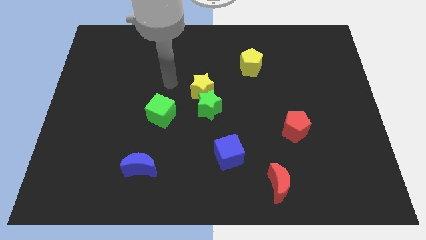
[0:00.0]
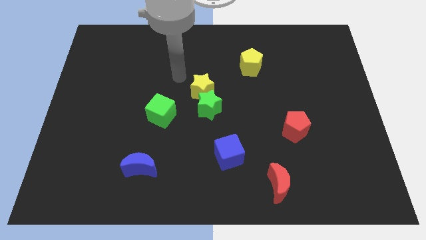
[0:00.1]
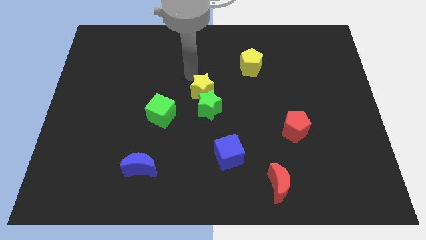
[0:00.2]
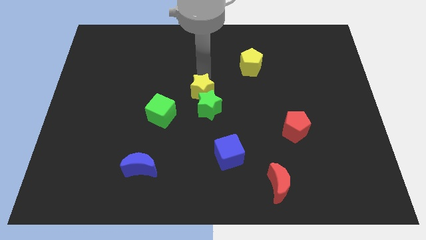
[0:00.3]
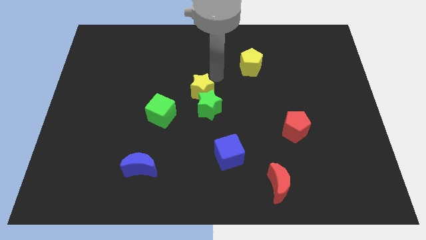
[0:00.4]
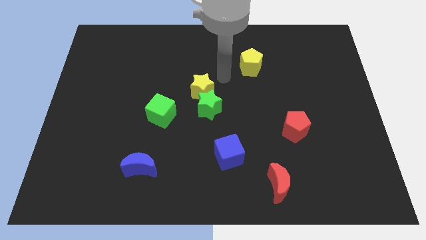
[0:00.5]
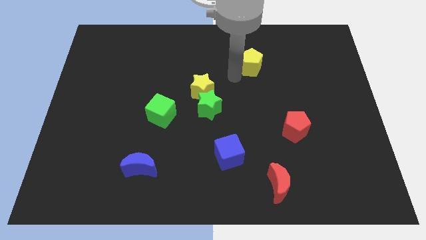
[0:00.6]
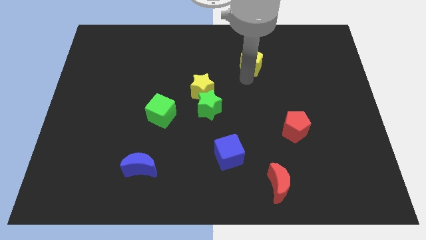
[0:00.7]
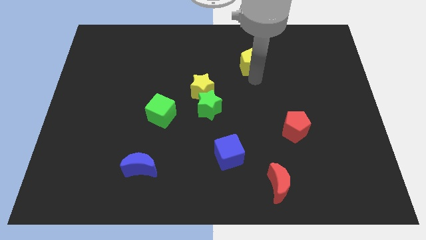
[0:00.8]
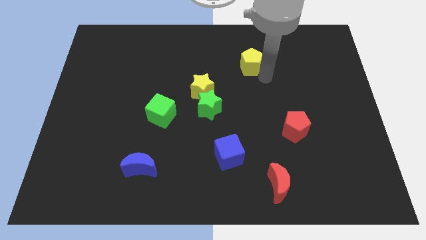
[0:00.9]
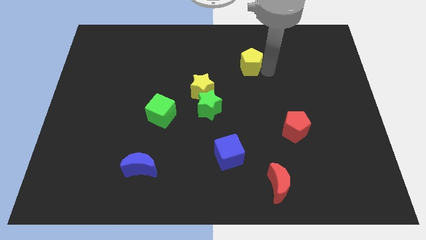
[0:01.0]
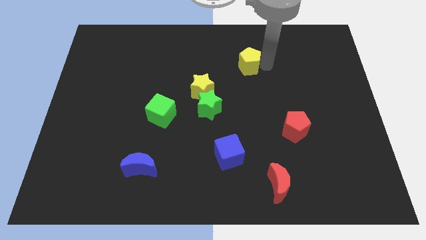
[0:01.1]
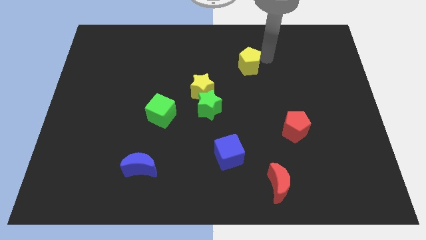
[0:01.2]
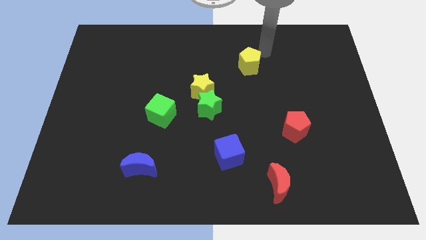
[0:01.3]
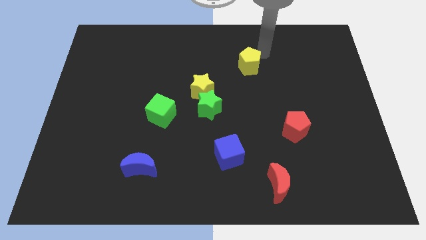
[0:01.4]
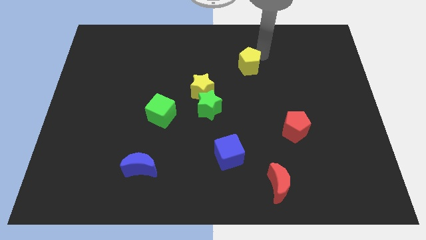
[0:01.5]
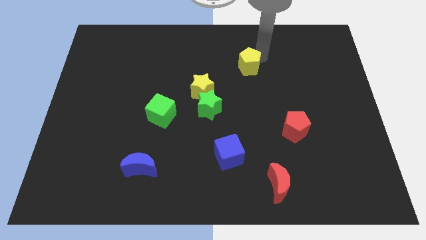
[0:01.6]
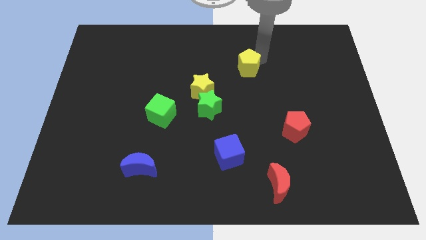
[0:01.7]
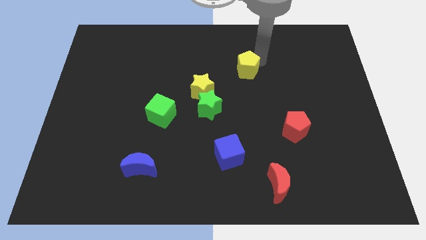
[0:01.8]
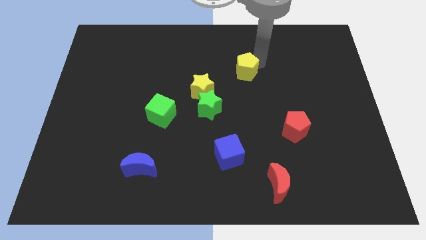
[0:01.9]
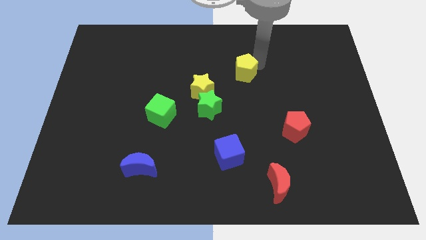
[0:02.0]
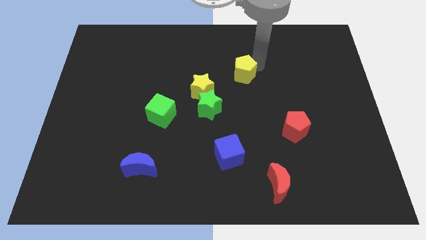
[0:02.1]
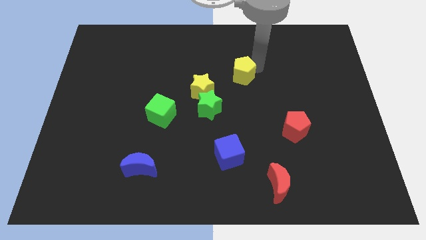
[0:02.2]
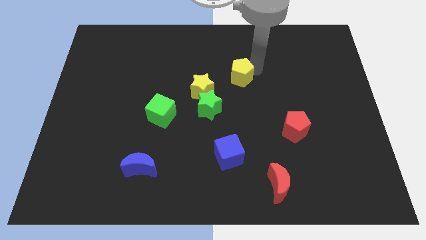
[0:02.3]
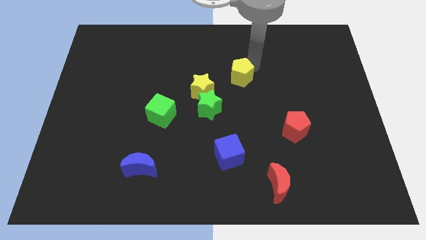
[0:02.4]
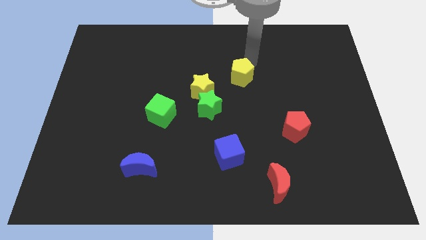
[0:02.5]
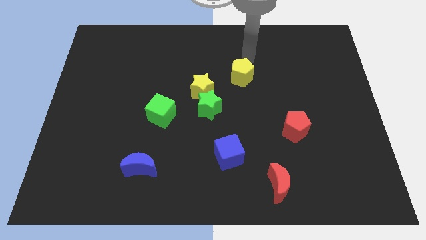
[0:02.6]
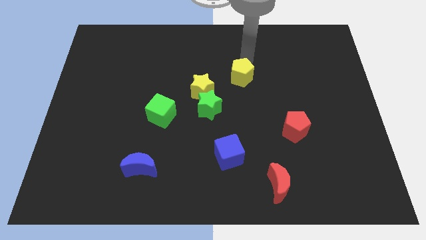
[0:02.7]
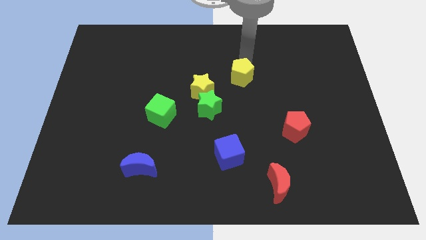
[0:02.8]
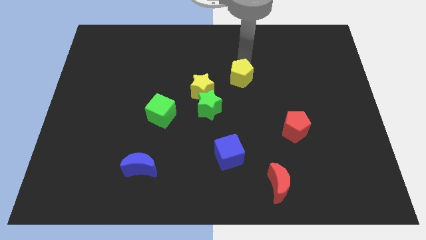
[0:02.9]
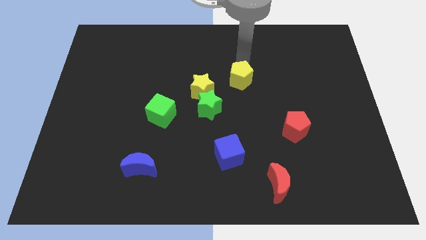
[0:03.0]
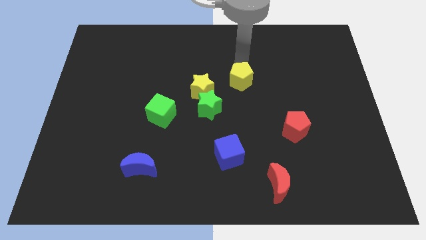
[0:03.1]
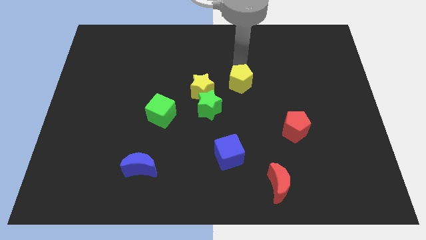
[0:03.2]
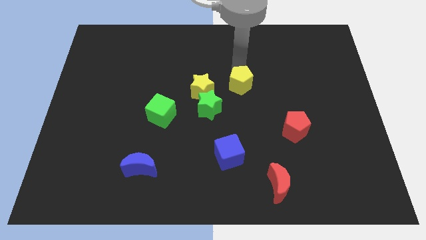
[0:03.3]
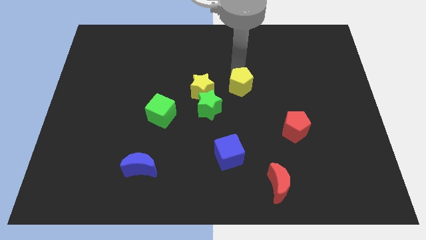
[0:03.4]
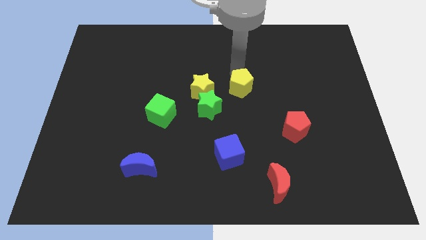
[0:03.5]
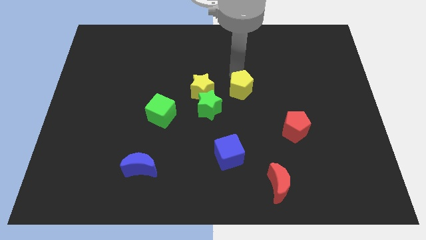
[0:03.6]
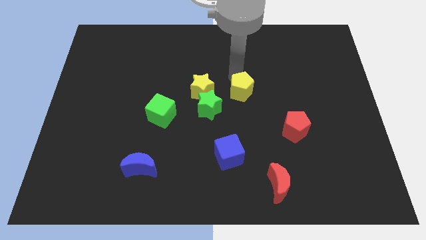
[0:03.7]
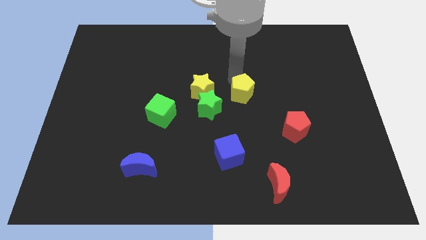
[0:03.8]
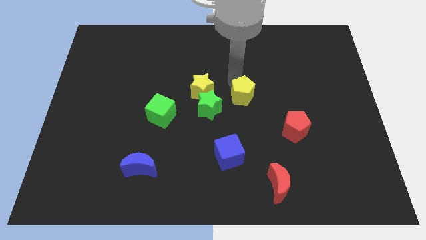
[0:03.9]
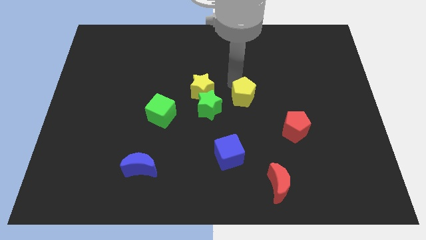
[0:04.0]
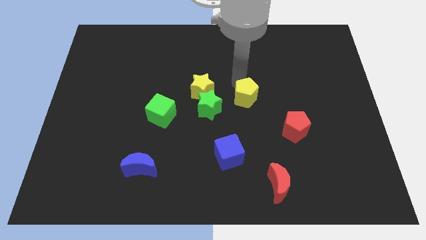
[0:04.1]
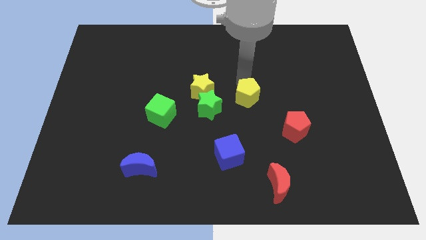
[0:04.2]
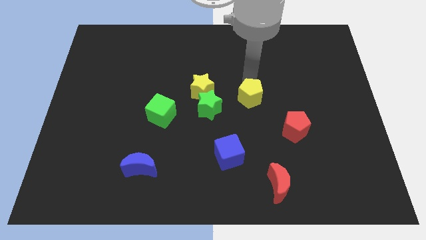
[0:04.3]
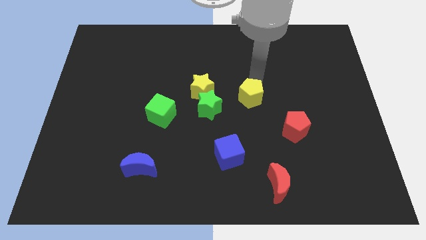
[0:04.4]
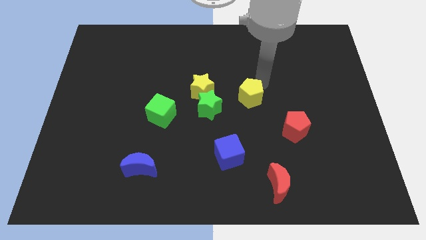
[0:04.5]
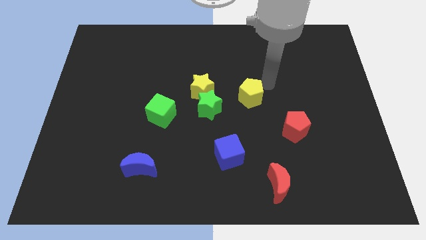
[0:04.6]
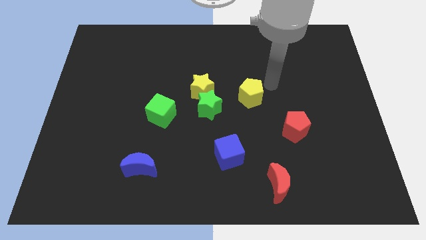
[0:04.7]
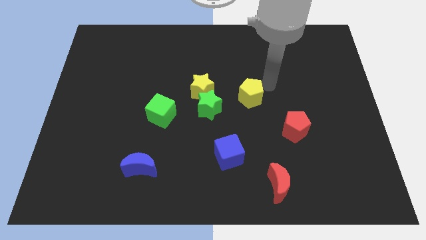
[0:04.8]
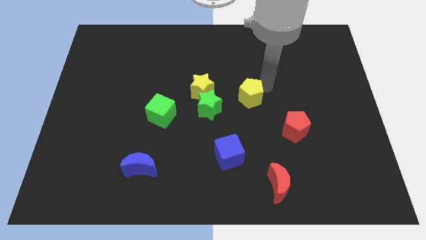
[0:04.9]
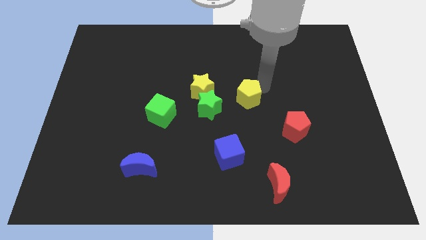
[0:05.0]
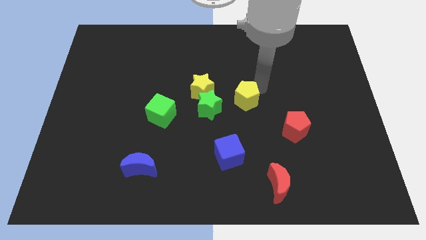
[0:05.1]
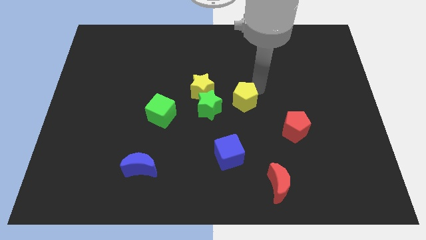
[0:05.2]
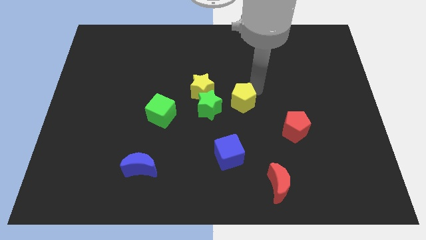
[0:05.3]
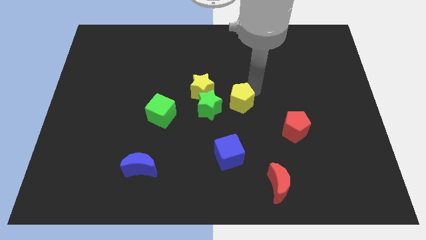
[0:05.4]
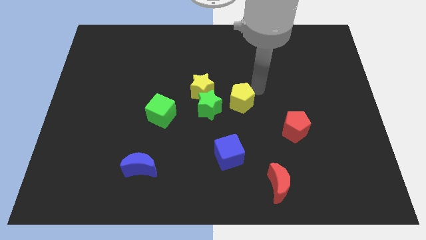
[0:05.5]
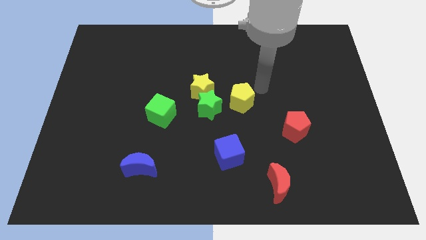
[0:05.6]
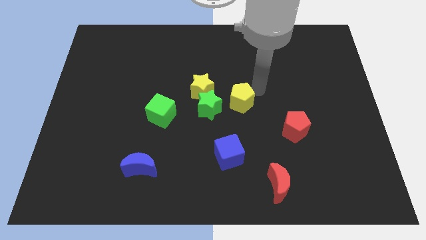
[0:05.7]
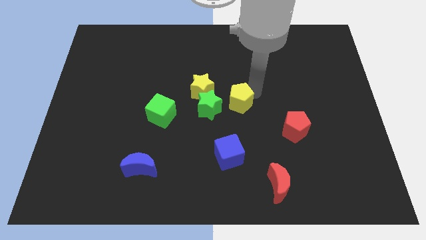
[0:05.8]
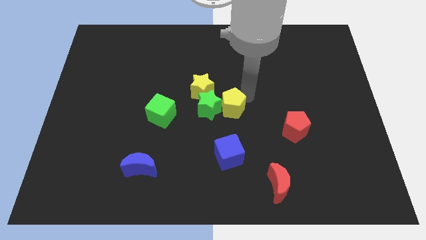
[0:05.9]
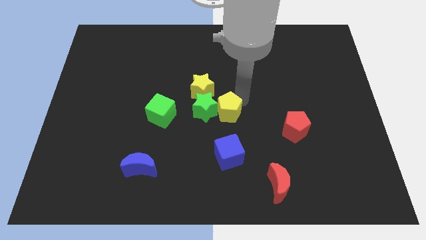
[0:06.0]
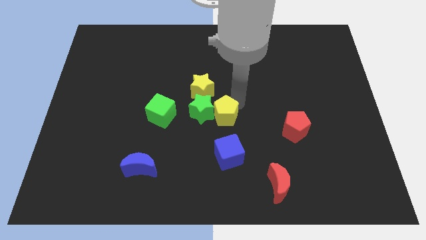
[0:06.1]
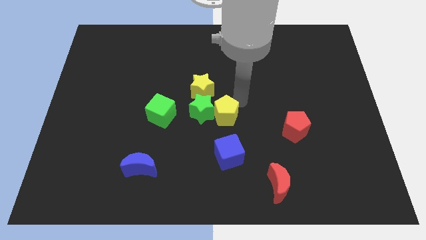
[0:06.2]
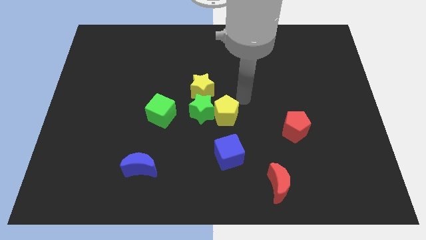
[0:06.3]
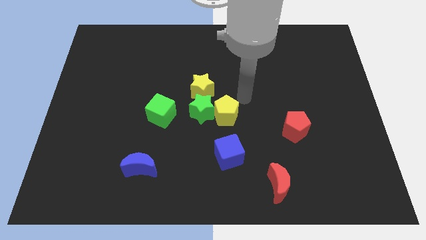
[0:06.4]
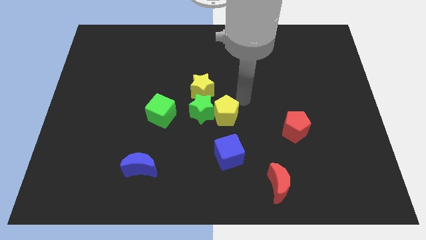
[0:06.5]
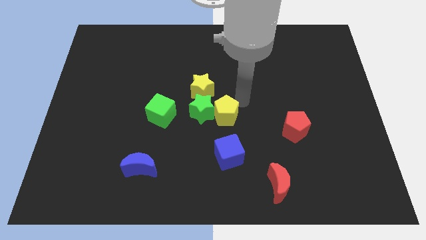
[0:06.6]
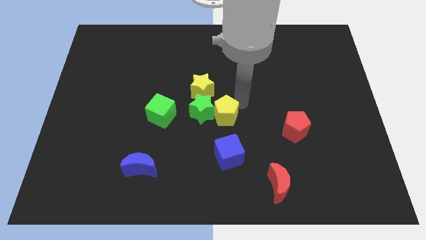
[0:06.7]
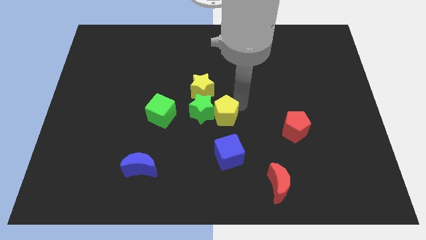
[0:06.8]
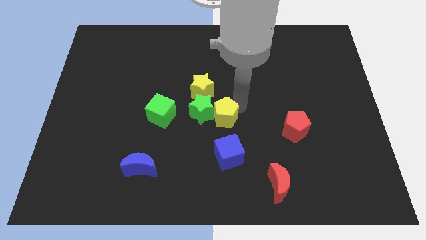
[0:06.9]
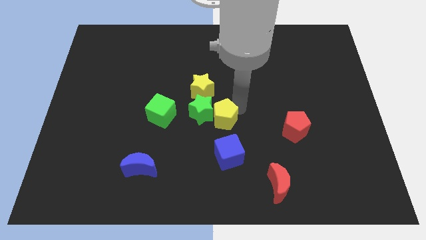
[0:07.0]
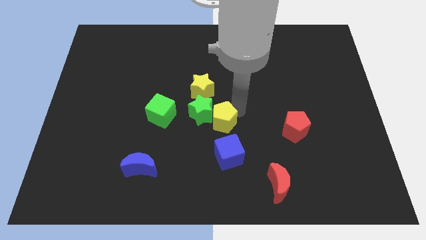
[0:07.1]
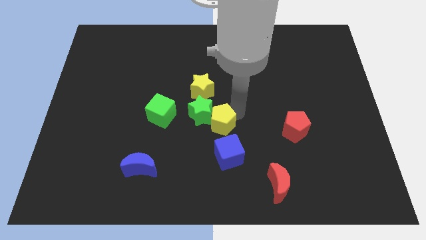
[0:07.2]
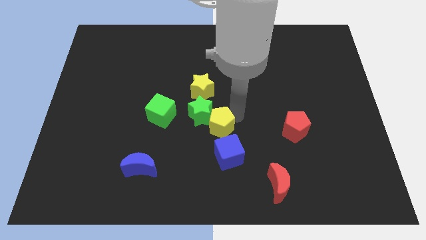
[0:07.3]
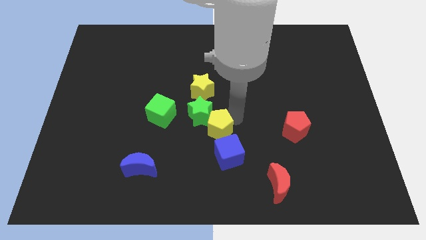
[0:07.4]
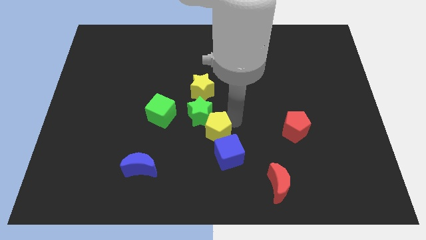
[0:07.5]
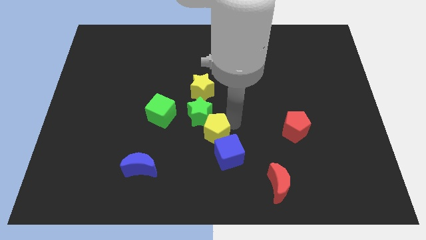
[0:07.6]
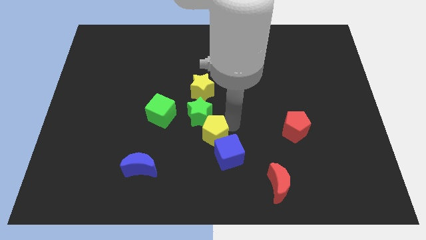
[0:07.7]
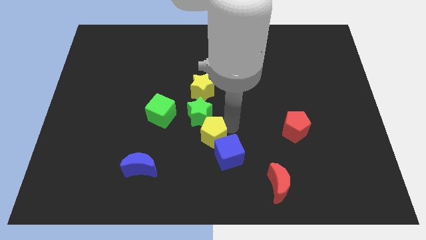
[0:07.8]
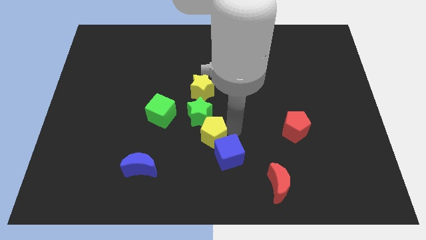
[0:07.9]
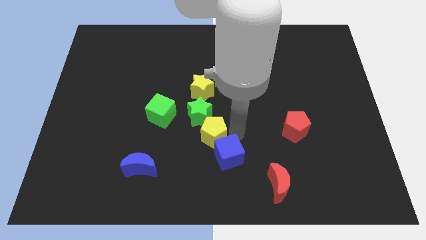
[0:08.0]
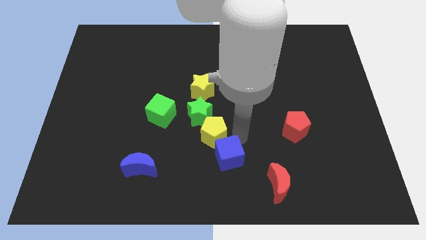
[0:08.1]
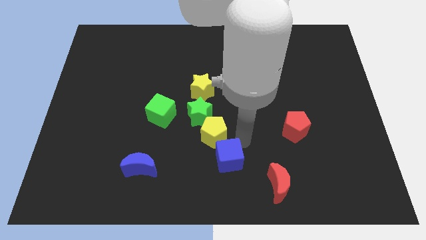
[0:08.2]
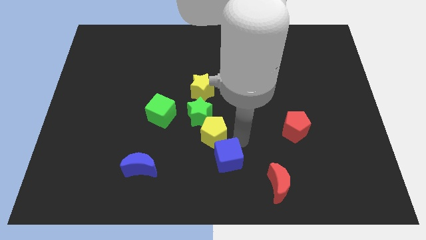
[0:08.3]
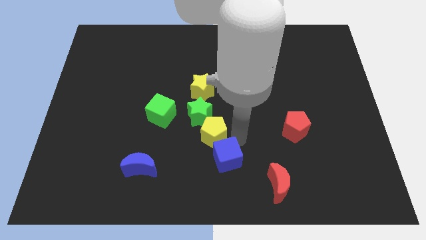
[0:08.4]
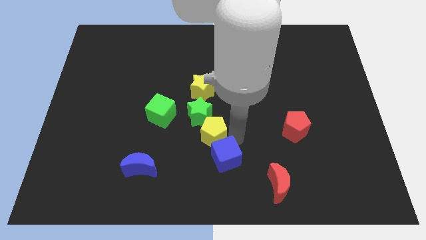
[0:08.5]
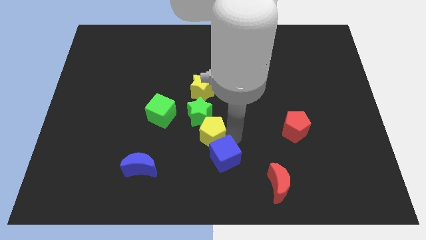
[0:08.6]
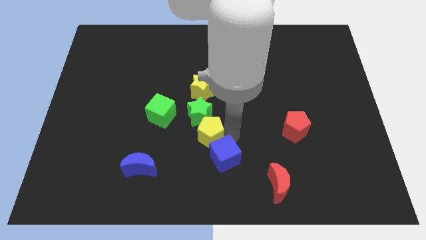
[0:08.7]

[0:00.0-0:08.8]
push the yellow pentagon downwards and then left
